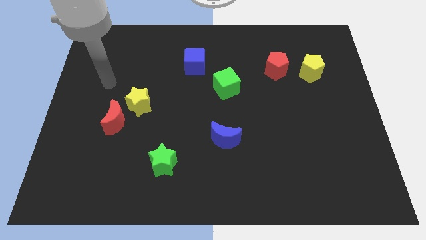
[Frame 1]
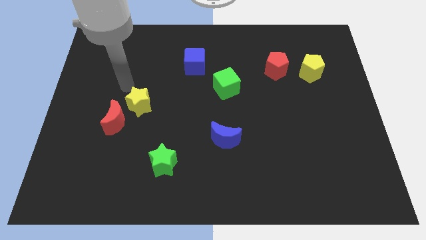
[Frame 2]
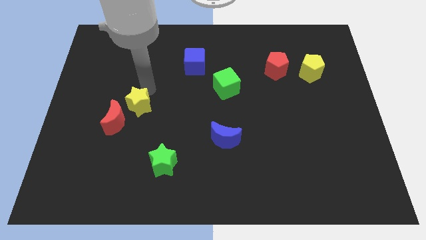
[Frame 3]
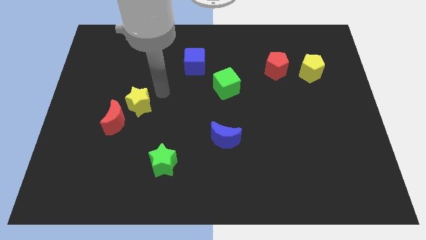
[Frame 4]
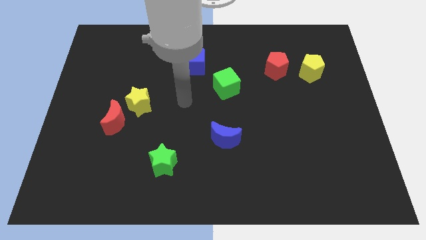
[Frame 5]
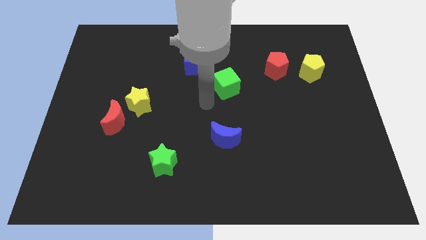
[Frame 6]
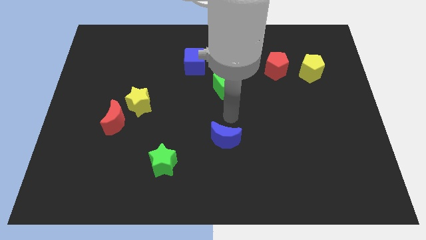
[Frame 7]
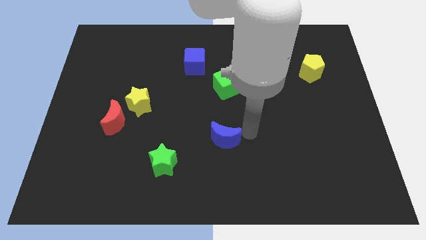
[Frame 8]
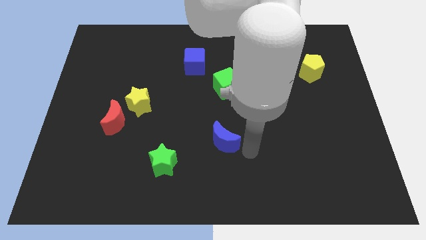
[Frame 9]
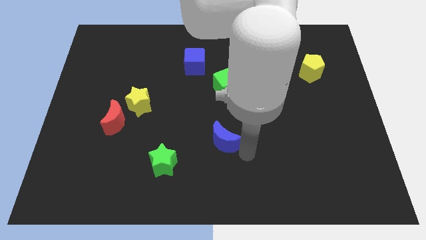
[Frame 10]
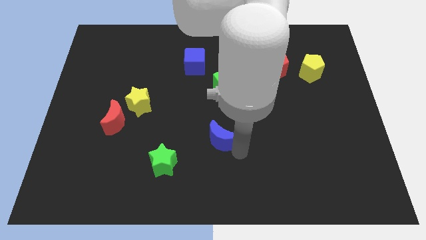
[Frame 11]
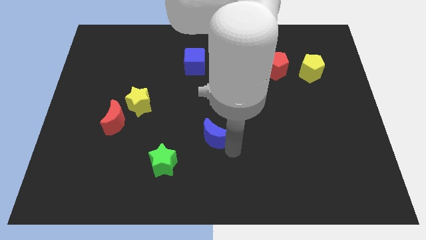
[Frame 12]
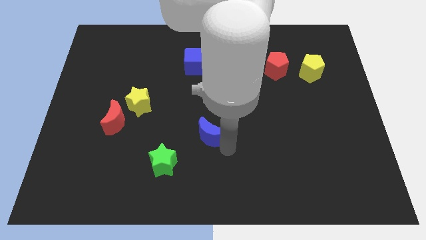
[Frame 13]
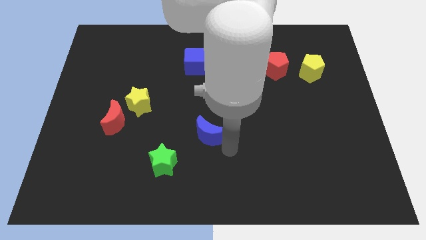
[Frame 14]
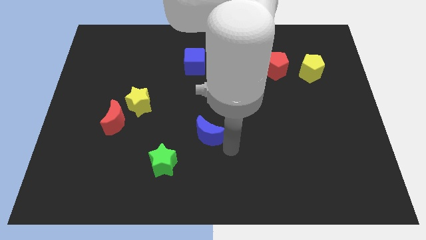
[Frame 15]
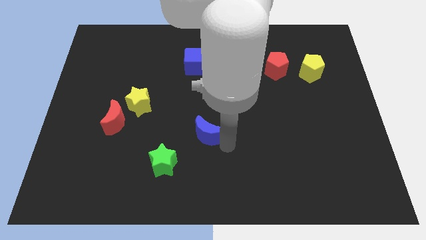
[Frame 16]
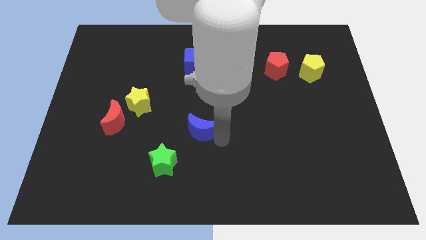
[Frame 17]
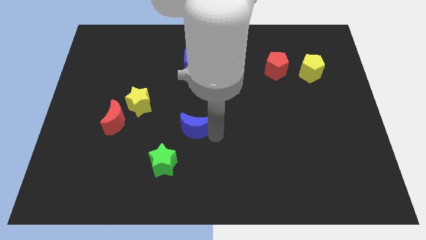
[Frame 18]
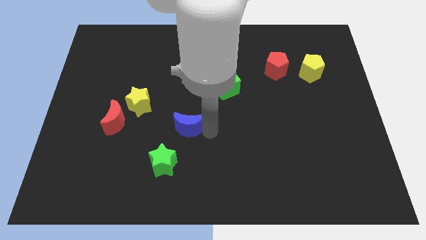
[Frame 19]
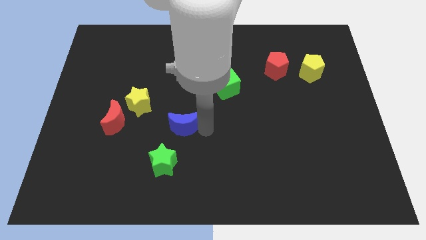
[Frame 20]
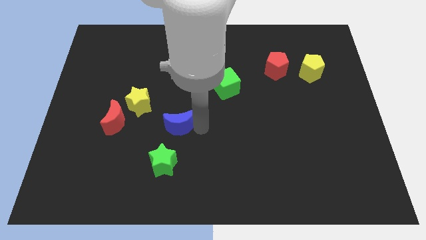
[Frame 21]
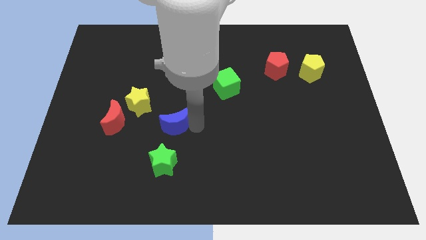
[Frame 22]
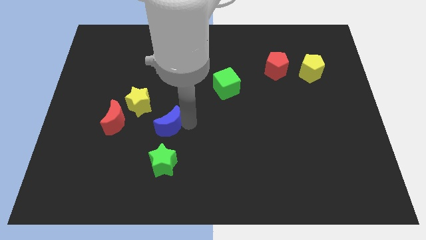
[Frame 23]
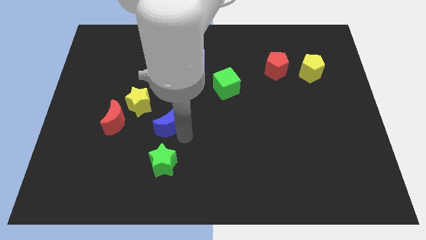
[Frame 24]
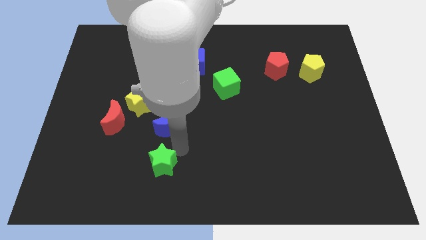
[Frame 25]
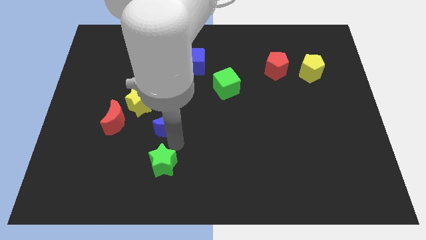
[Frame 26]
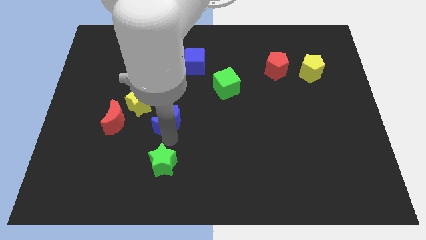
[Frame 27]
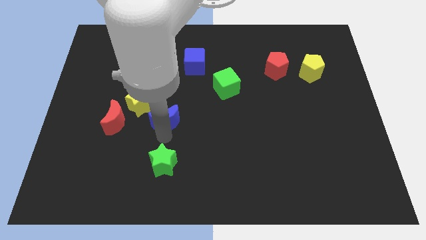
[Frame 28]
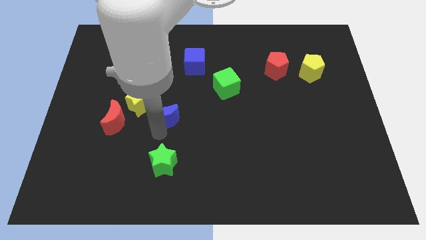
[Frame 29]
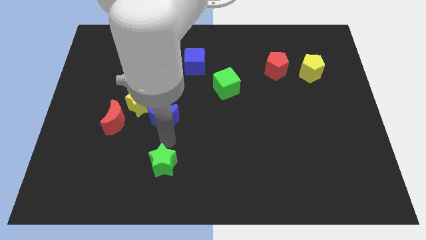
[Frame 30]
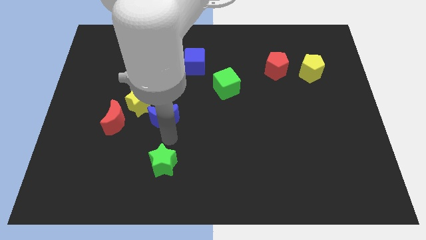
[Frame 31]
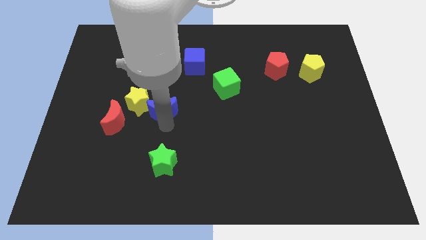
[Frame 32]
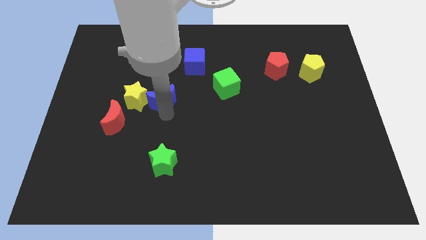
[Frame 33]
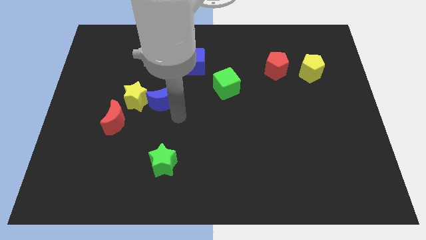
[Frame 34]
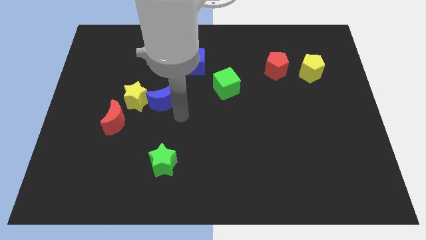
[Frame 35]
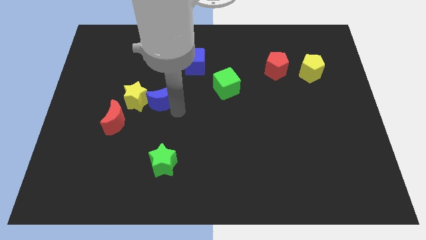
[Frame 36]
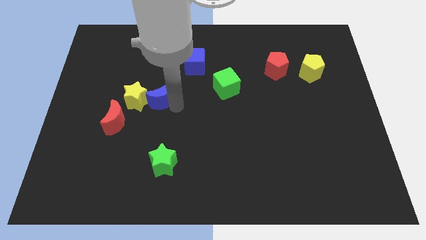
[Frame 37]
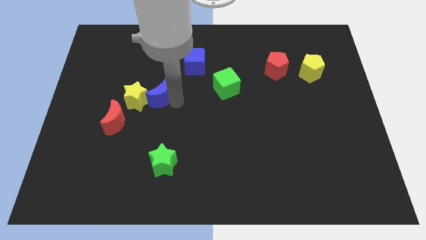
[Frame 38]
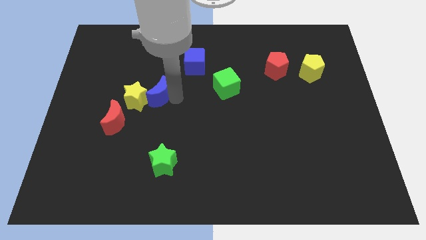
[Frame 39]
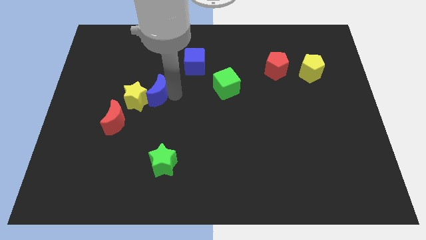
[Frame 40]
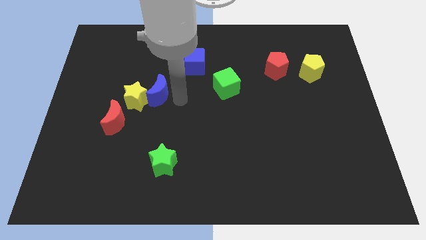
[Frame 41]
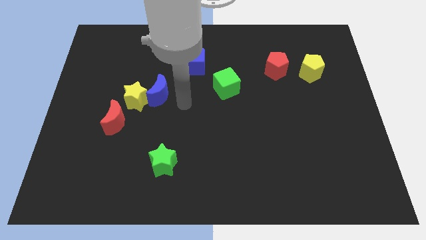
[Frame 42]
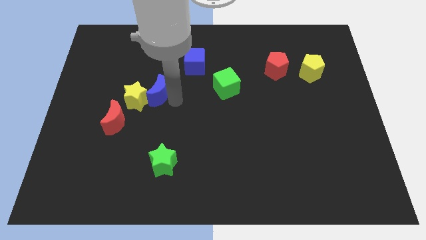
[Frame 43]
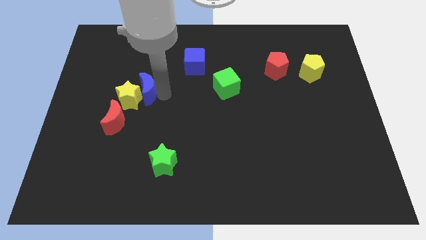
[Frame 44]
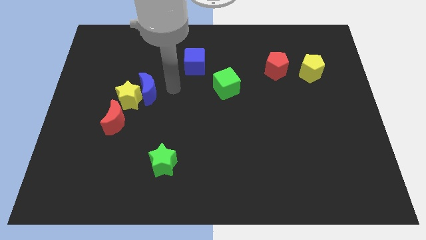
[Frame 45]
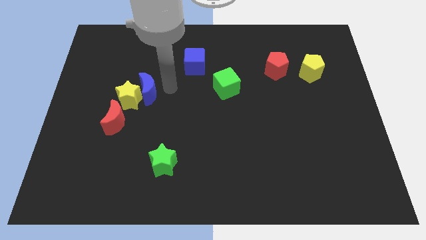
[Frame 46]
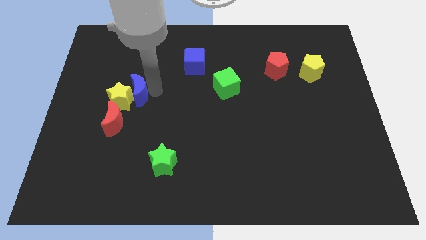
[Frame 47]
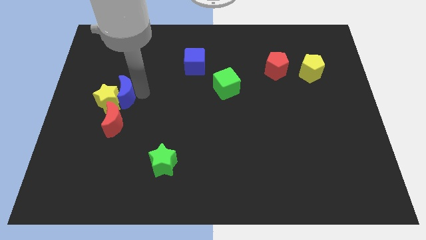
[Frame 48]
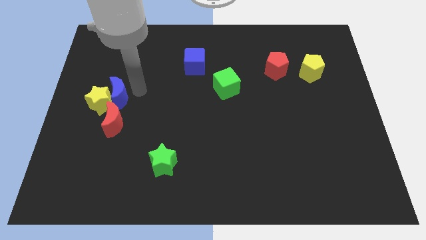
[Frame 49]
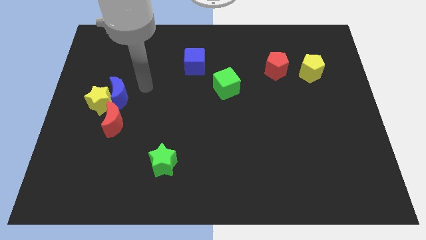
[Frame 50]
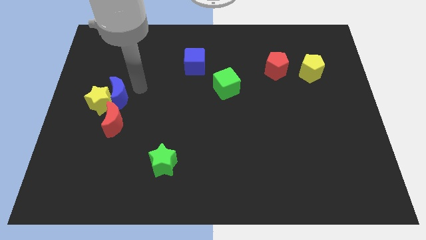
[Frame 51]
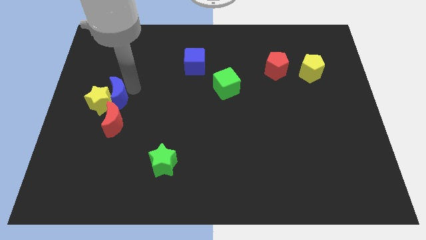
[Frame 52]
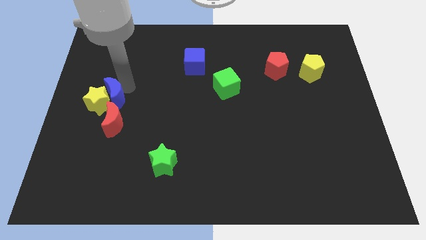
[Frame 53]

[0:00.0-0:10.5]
push the blue moon to the top left side of the red moon

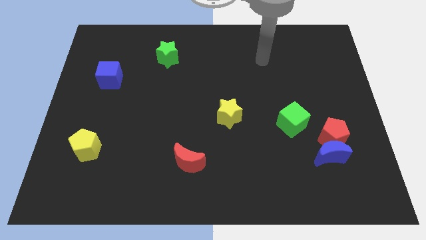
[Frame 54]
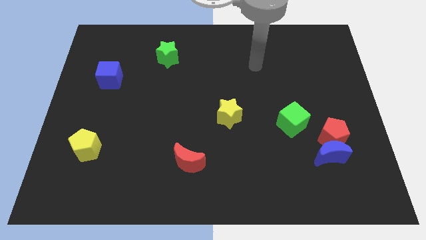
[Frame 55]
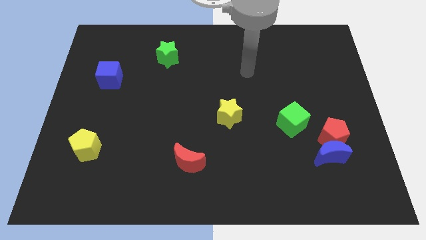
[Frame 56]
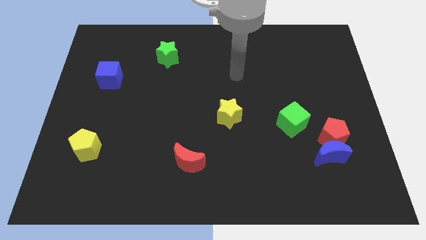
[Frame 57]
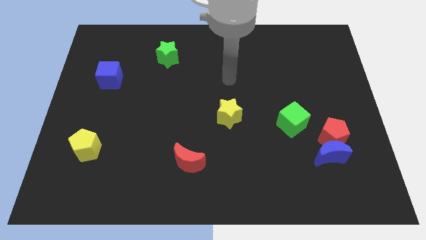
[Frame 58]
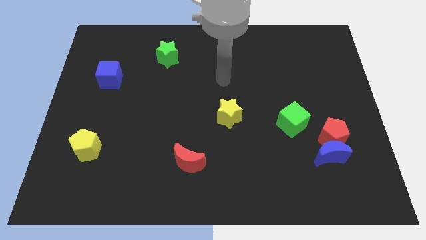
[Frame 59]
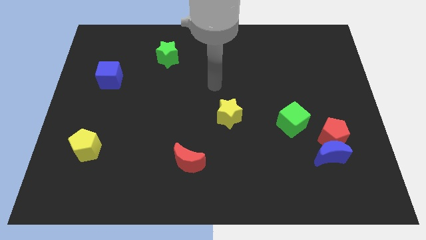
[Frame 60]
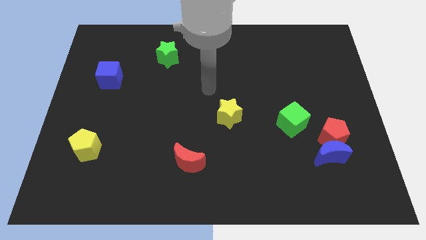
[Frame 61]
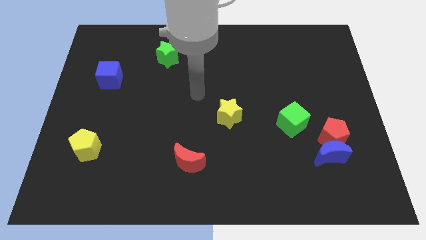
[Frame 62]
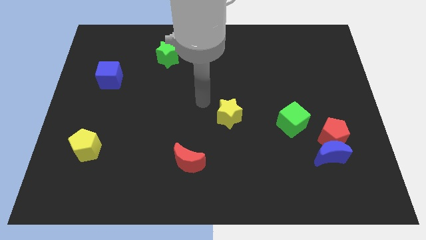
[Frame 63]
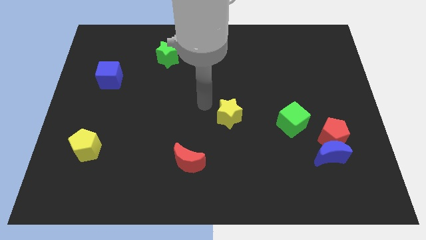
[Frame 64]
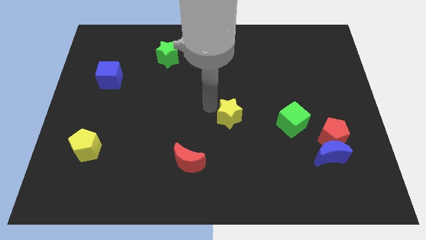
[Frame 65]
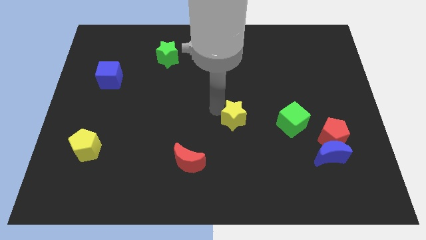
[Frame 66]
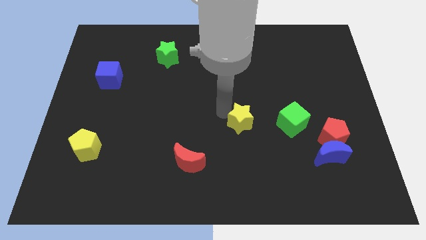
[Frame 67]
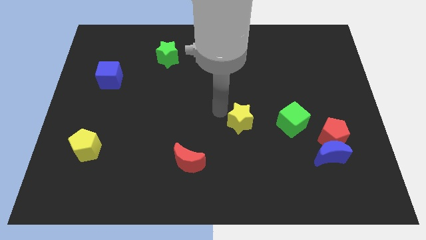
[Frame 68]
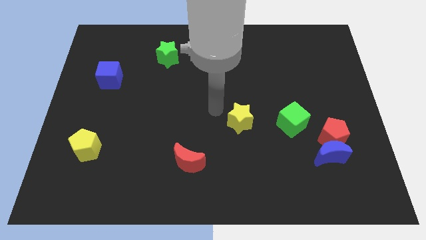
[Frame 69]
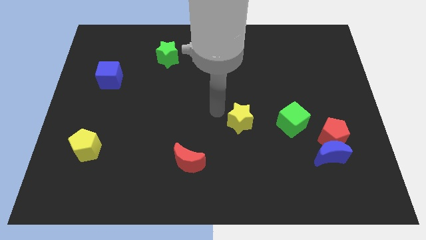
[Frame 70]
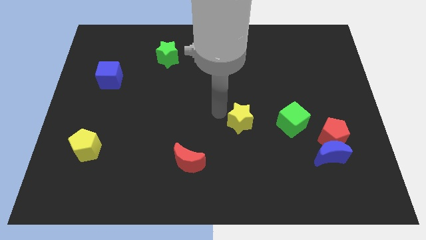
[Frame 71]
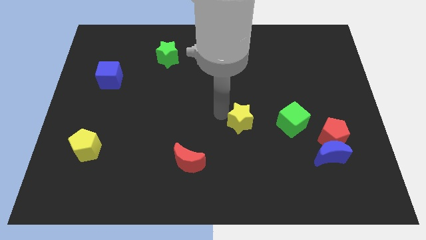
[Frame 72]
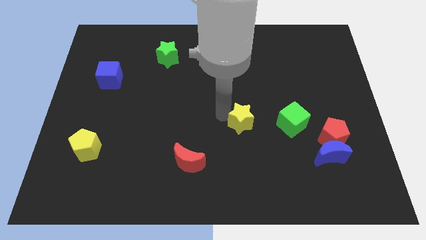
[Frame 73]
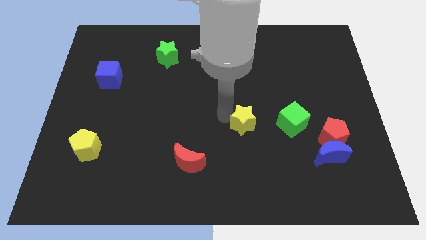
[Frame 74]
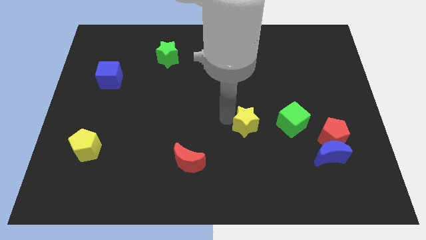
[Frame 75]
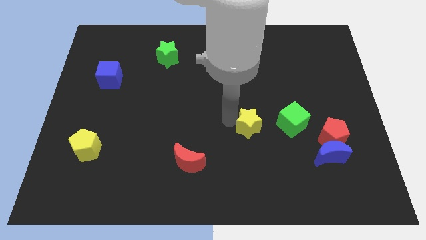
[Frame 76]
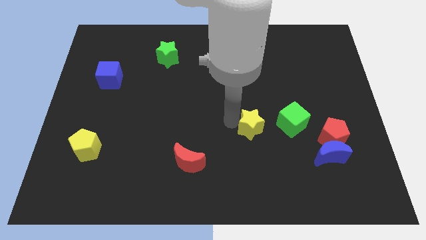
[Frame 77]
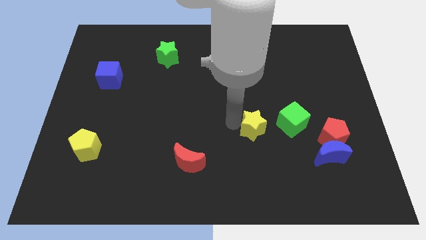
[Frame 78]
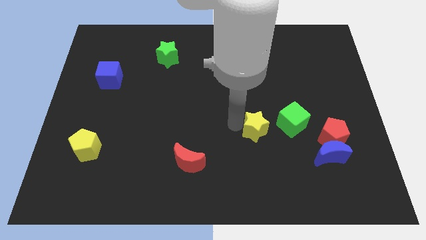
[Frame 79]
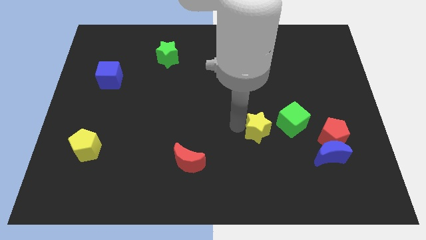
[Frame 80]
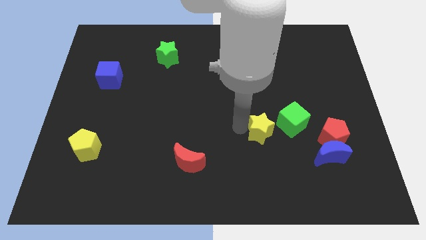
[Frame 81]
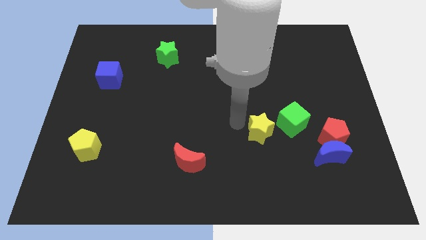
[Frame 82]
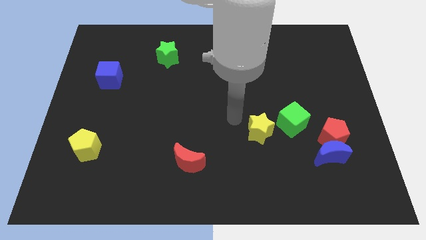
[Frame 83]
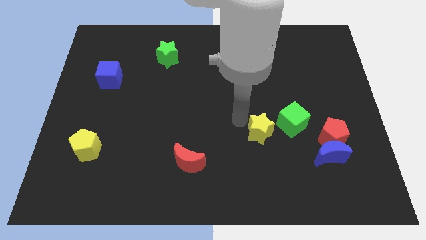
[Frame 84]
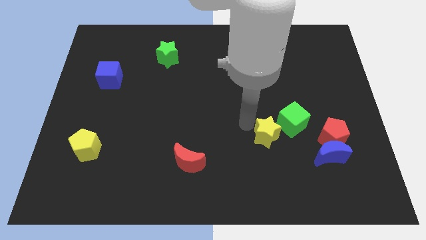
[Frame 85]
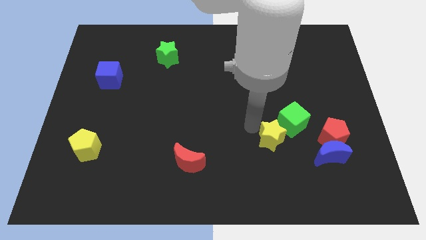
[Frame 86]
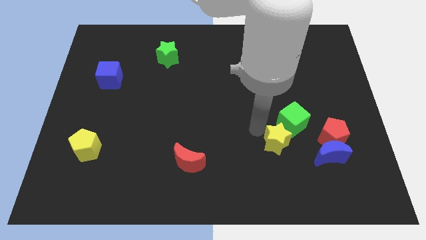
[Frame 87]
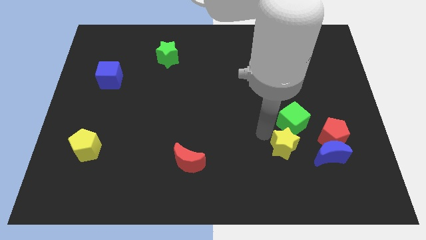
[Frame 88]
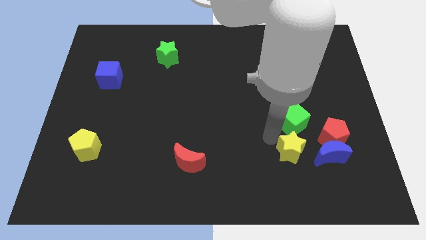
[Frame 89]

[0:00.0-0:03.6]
slide the yellow star diagonally down and to the left of the red pentagon
